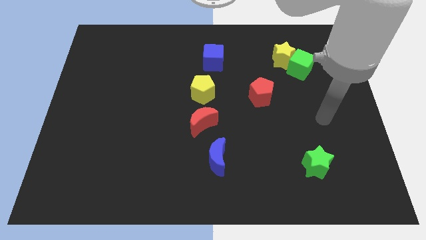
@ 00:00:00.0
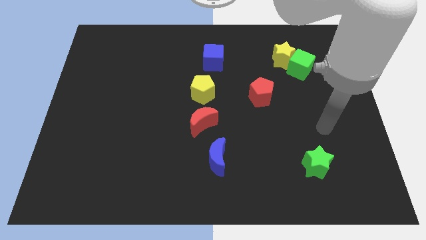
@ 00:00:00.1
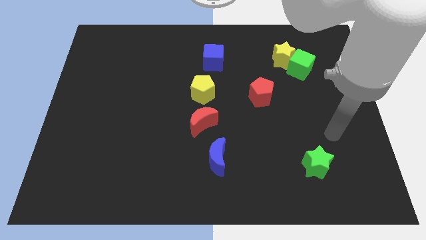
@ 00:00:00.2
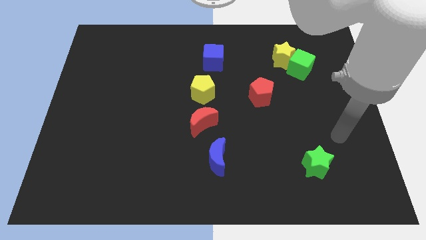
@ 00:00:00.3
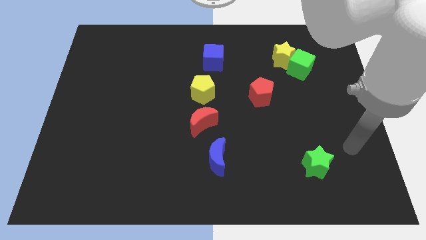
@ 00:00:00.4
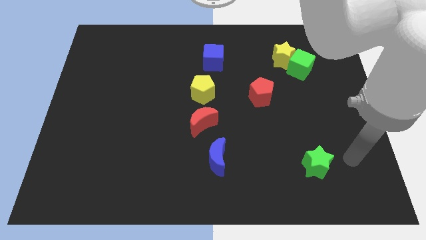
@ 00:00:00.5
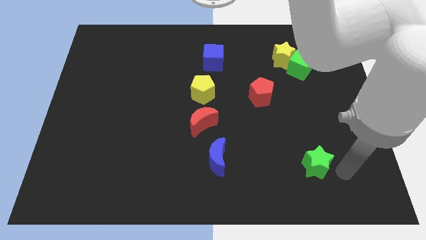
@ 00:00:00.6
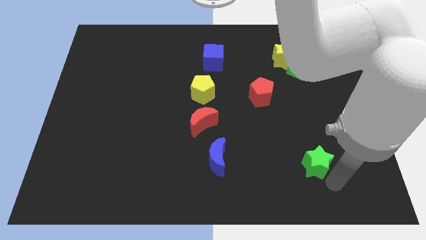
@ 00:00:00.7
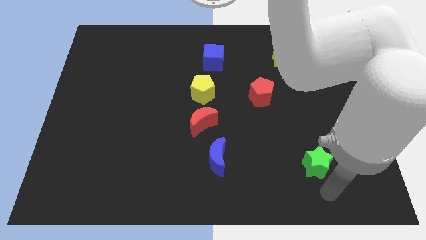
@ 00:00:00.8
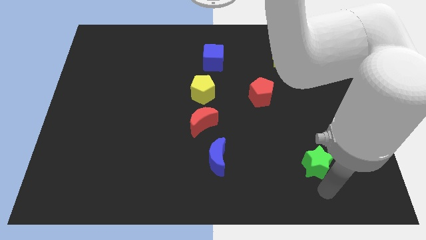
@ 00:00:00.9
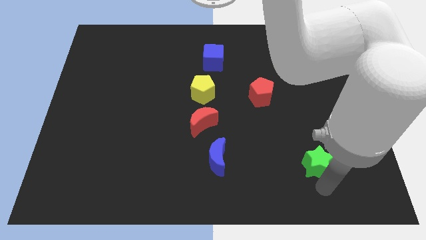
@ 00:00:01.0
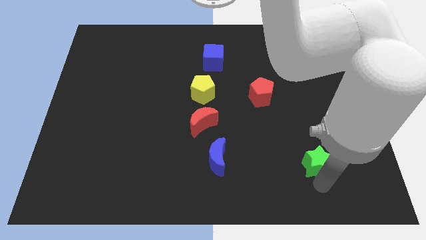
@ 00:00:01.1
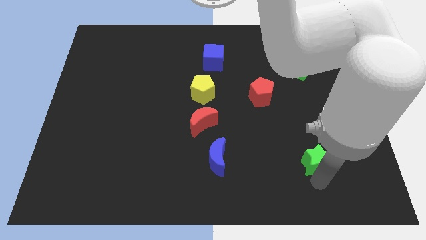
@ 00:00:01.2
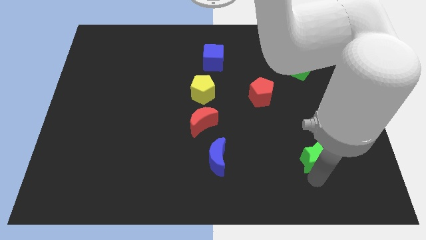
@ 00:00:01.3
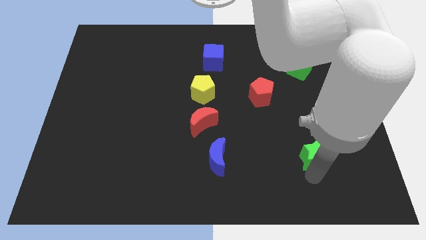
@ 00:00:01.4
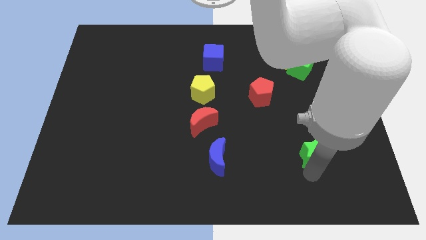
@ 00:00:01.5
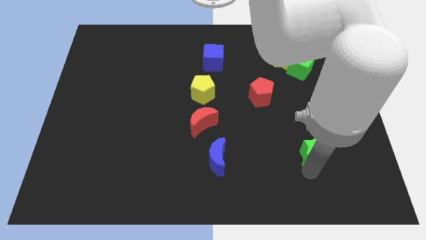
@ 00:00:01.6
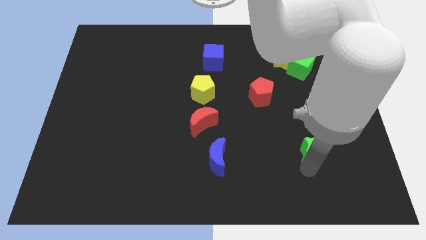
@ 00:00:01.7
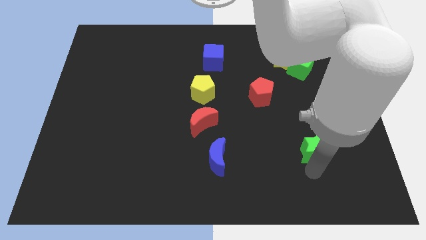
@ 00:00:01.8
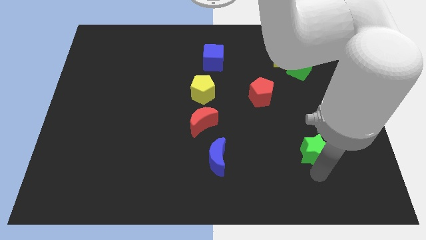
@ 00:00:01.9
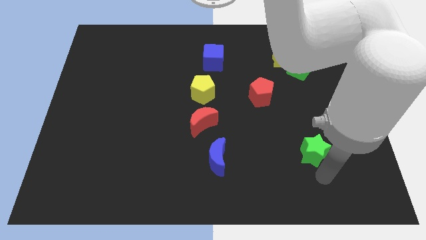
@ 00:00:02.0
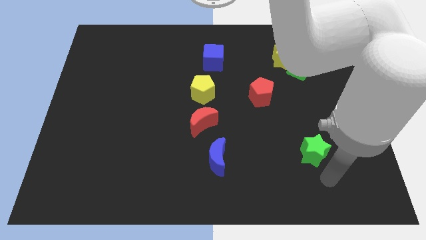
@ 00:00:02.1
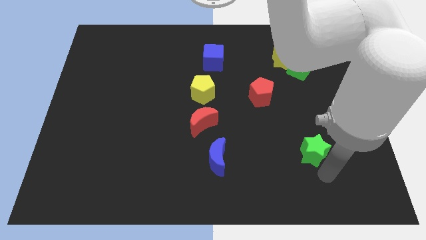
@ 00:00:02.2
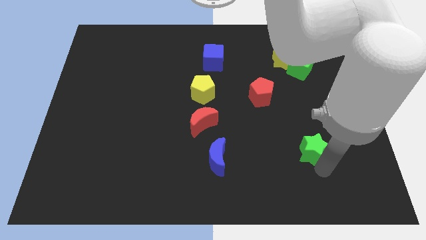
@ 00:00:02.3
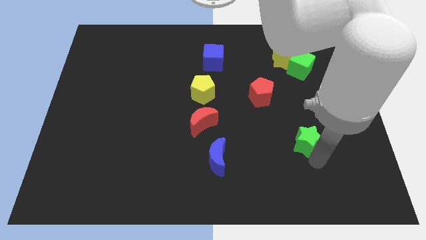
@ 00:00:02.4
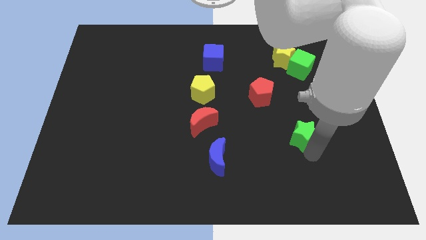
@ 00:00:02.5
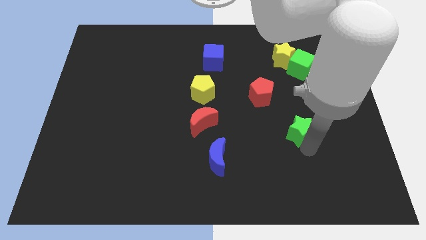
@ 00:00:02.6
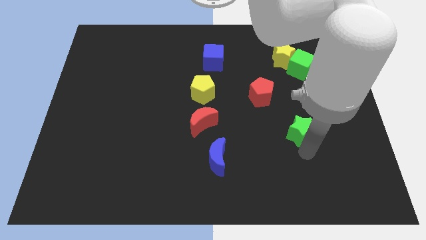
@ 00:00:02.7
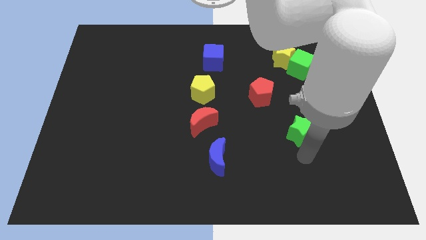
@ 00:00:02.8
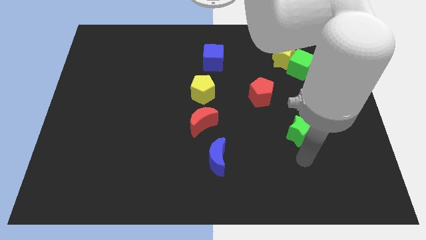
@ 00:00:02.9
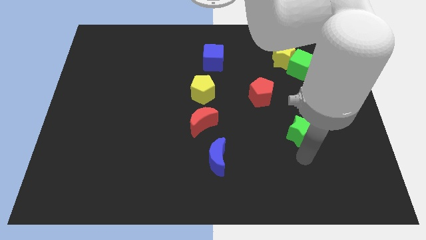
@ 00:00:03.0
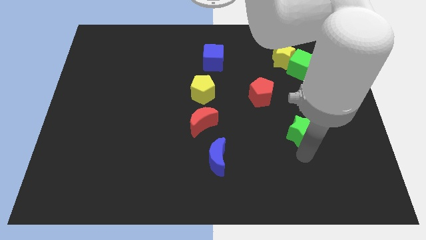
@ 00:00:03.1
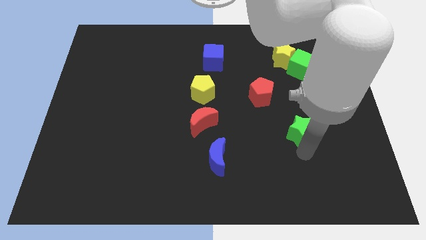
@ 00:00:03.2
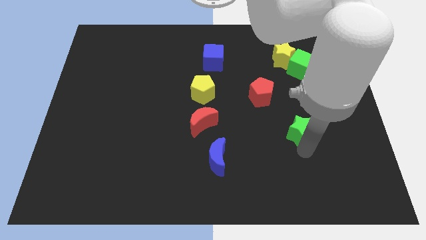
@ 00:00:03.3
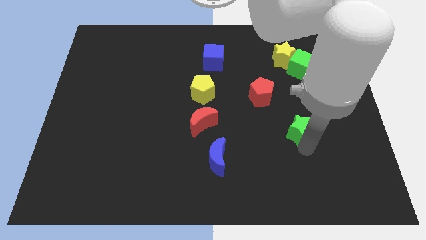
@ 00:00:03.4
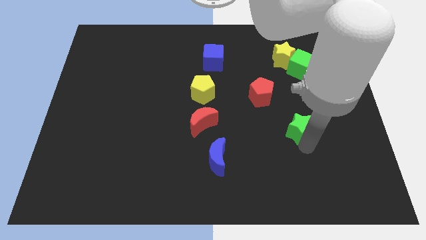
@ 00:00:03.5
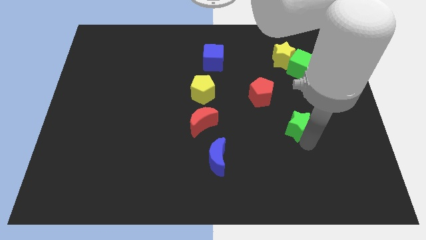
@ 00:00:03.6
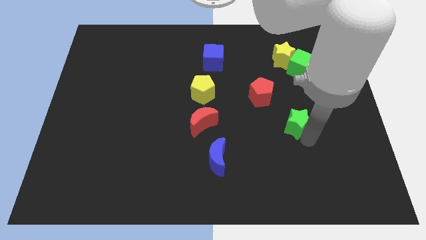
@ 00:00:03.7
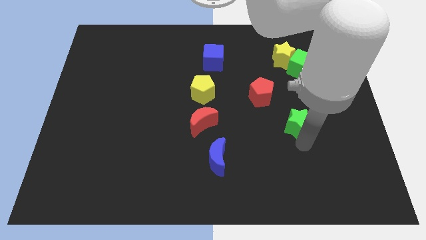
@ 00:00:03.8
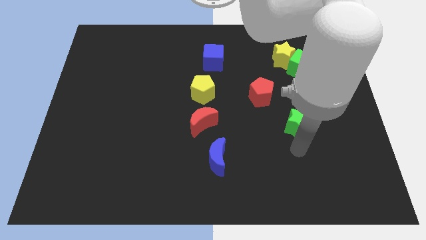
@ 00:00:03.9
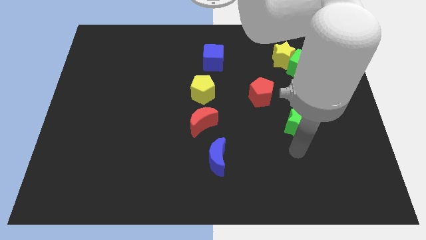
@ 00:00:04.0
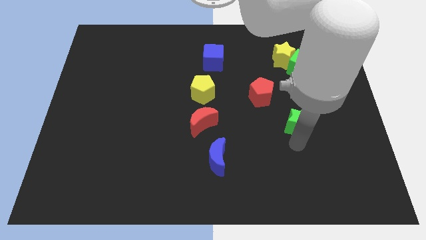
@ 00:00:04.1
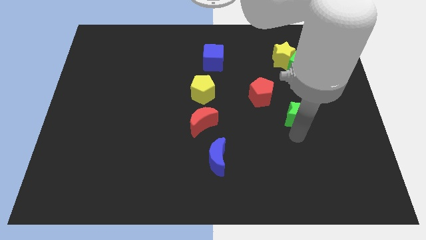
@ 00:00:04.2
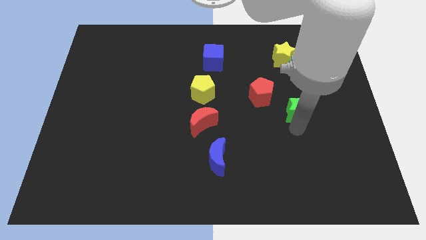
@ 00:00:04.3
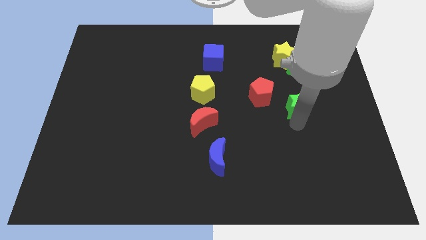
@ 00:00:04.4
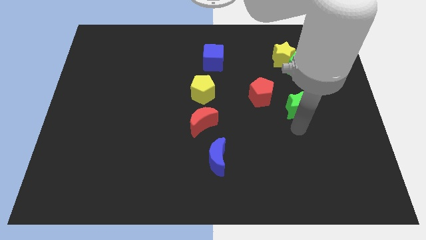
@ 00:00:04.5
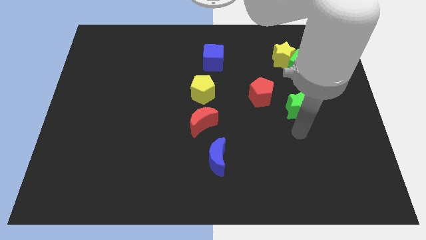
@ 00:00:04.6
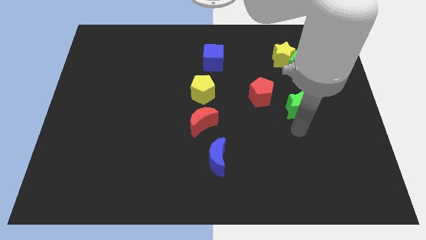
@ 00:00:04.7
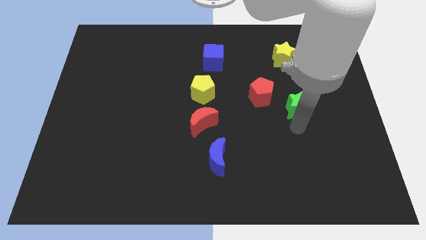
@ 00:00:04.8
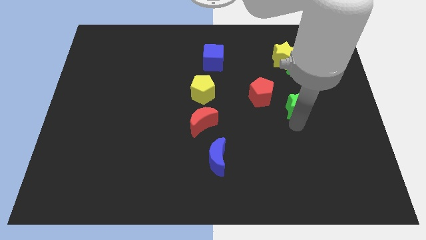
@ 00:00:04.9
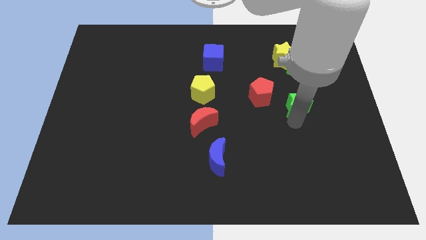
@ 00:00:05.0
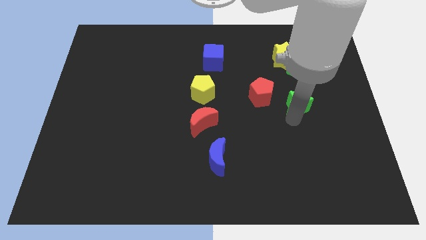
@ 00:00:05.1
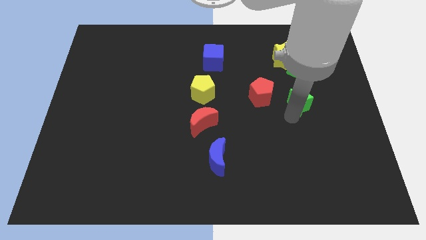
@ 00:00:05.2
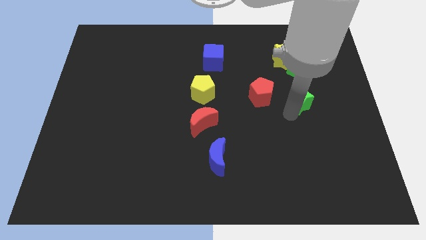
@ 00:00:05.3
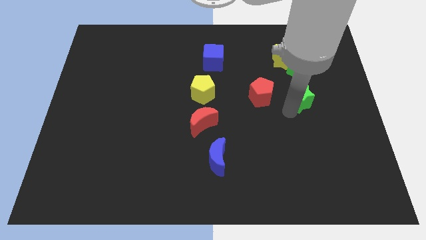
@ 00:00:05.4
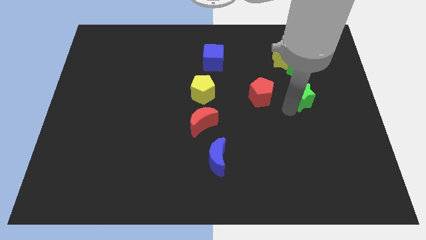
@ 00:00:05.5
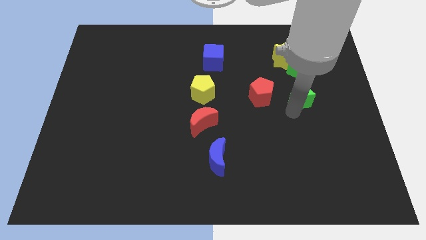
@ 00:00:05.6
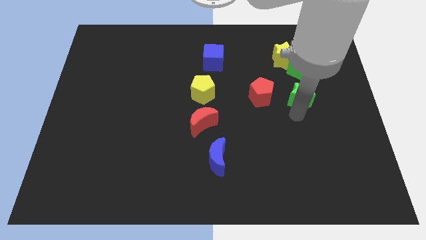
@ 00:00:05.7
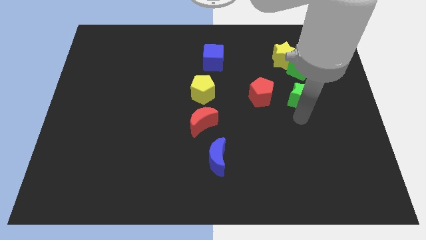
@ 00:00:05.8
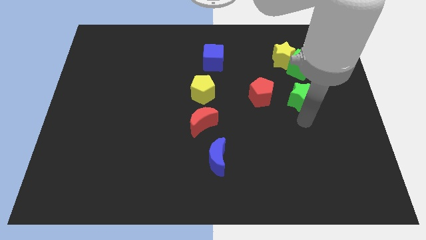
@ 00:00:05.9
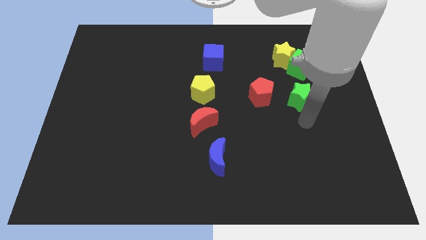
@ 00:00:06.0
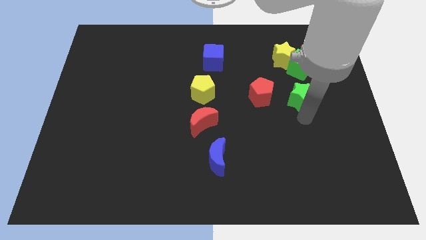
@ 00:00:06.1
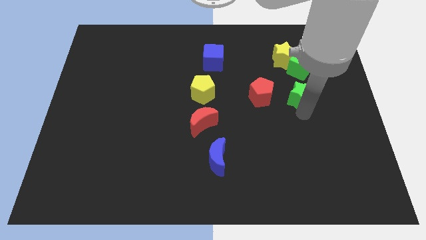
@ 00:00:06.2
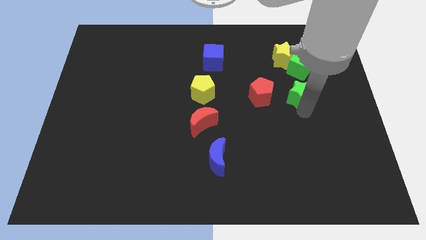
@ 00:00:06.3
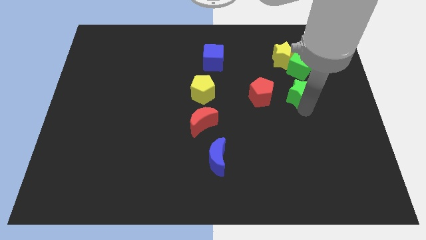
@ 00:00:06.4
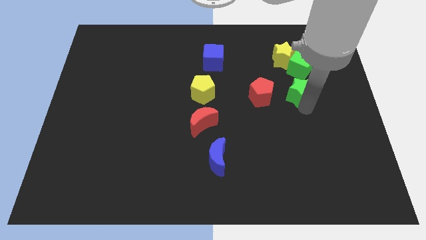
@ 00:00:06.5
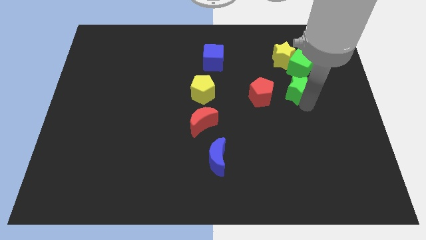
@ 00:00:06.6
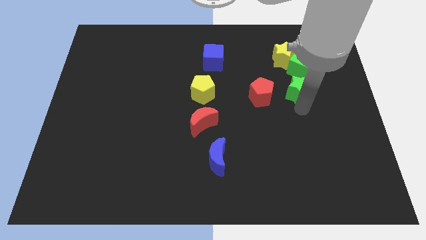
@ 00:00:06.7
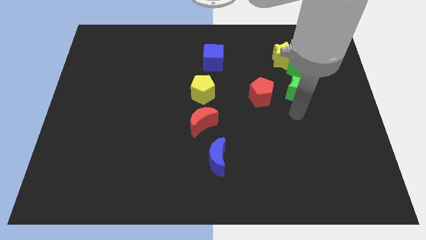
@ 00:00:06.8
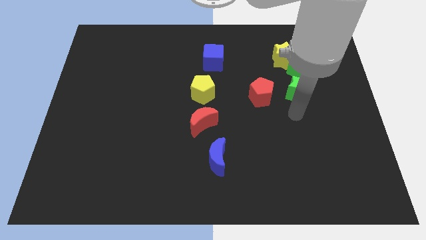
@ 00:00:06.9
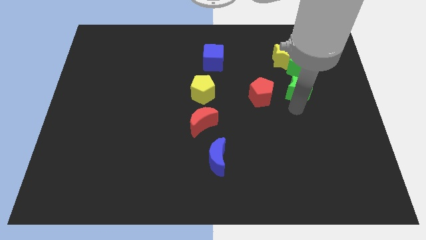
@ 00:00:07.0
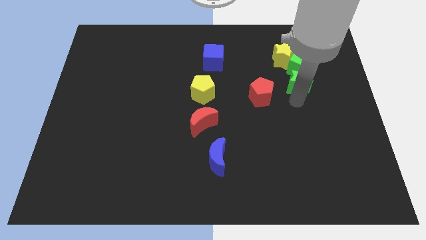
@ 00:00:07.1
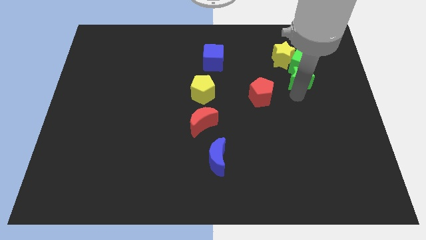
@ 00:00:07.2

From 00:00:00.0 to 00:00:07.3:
put the green star towards the green cube

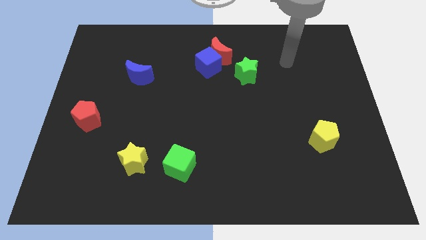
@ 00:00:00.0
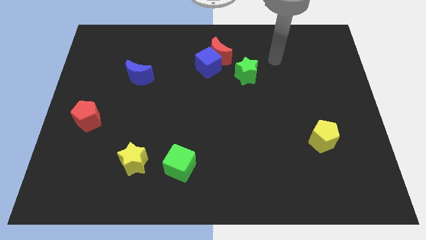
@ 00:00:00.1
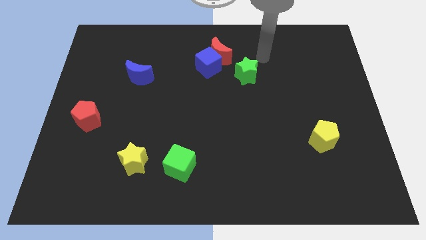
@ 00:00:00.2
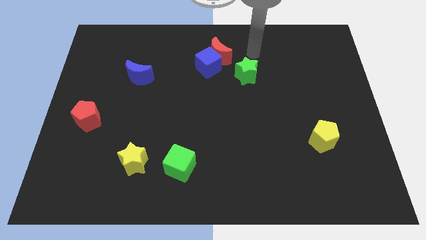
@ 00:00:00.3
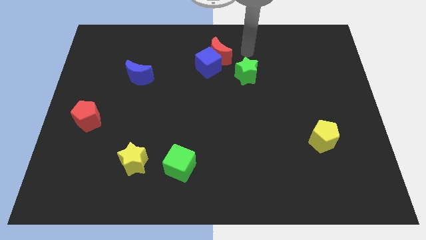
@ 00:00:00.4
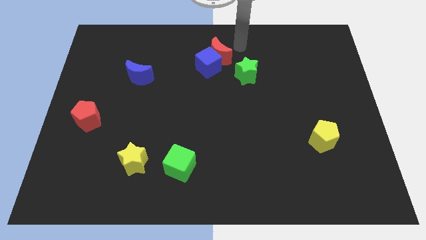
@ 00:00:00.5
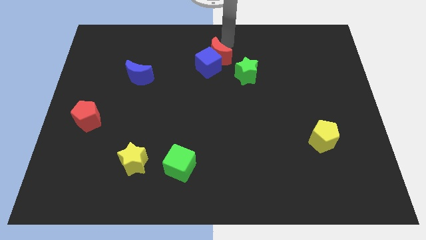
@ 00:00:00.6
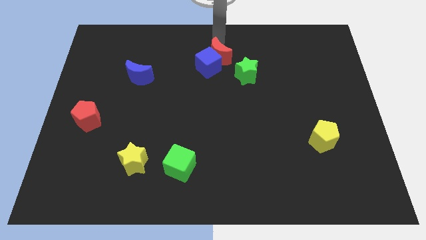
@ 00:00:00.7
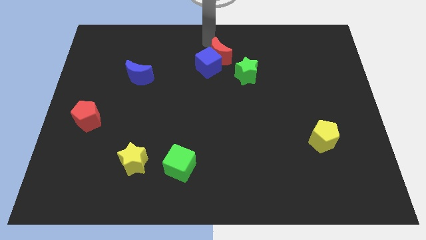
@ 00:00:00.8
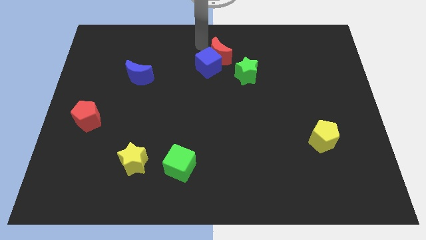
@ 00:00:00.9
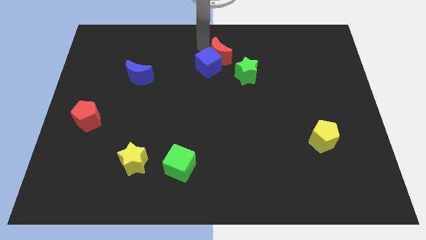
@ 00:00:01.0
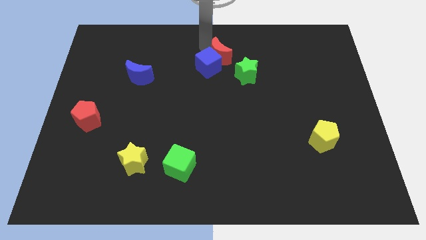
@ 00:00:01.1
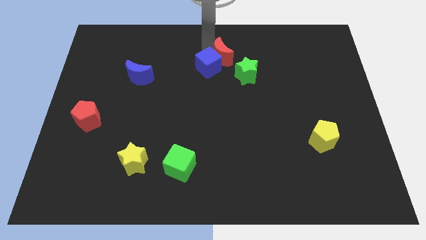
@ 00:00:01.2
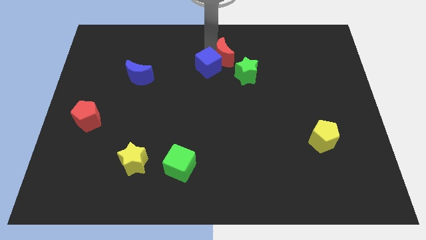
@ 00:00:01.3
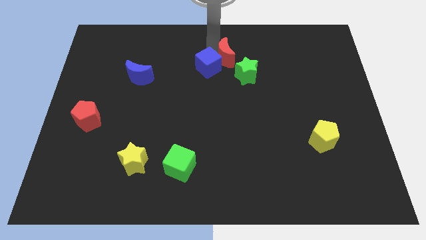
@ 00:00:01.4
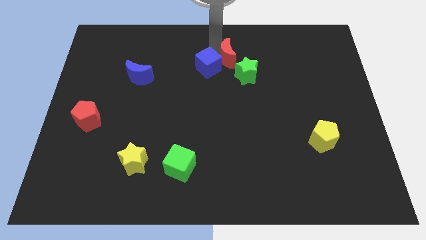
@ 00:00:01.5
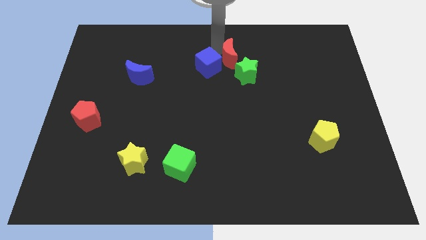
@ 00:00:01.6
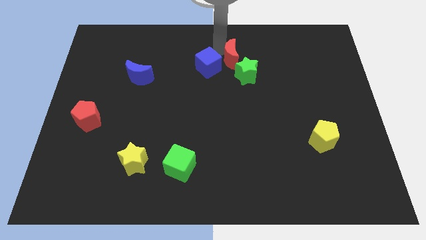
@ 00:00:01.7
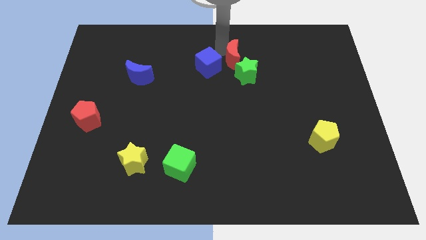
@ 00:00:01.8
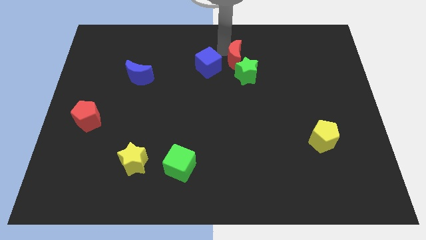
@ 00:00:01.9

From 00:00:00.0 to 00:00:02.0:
move the red moon to the green star
